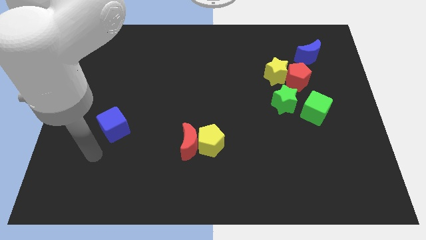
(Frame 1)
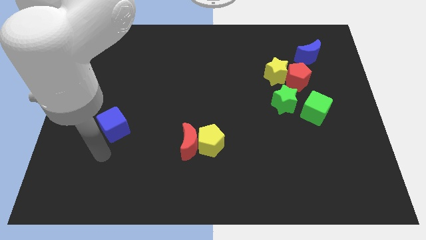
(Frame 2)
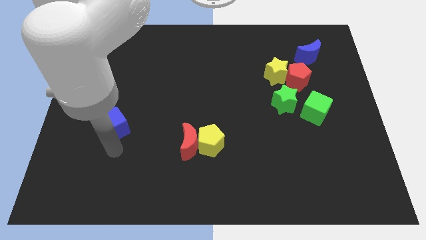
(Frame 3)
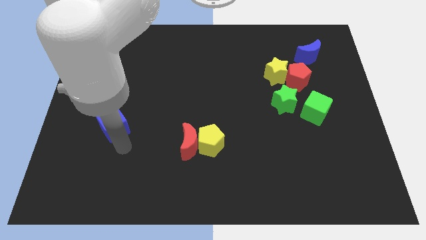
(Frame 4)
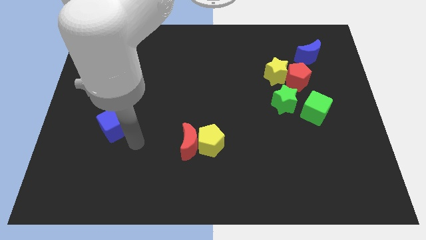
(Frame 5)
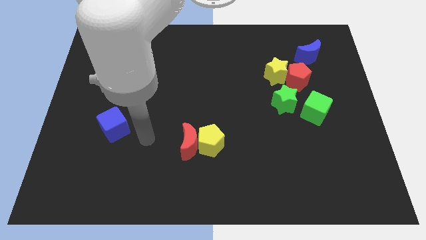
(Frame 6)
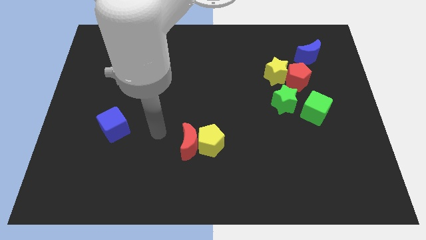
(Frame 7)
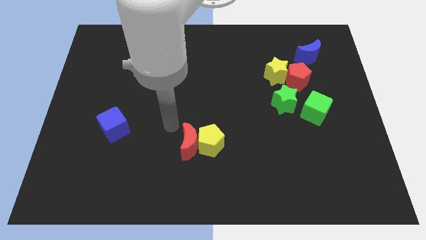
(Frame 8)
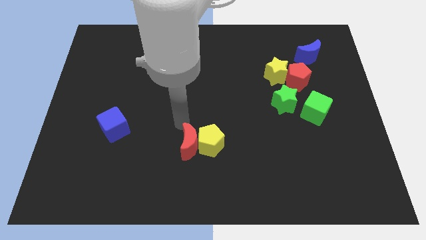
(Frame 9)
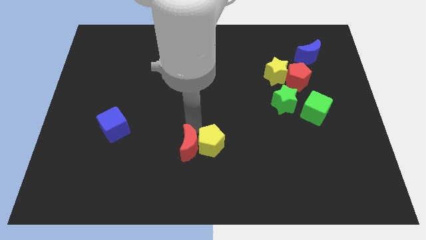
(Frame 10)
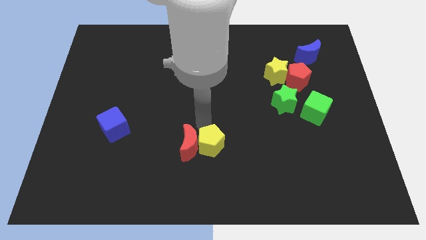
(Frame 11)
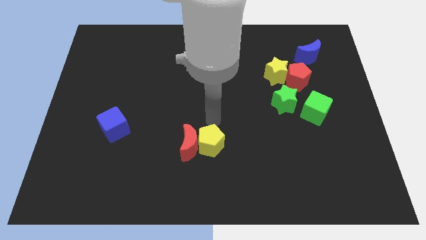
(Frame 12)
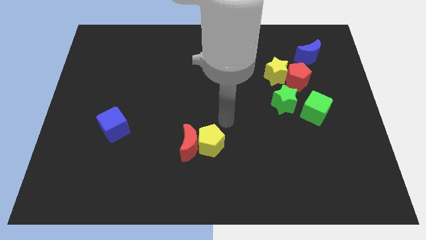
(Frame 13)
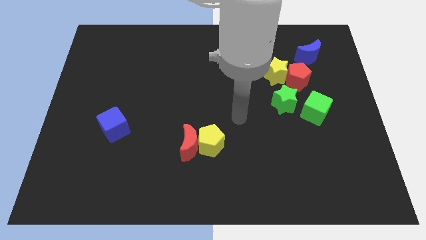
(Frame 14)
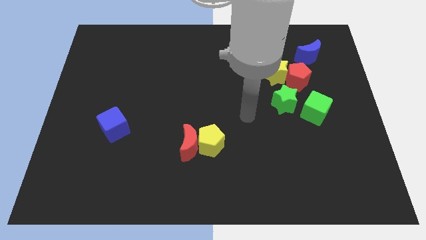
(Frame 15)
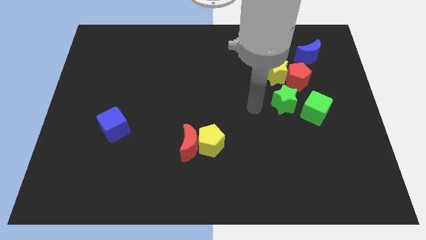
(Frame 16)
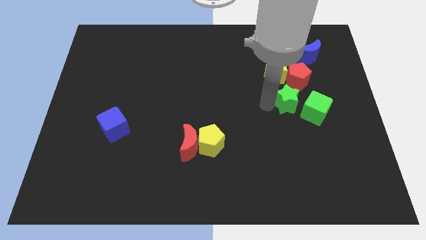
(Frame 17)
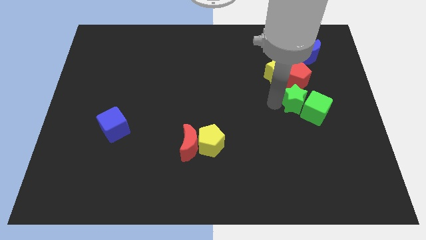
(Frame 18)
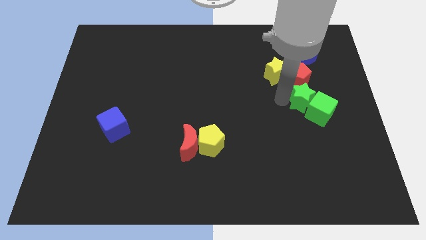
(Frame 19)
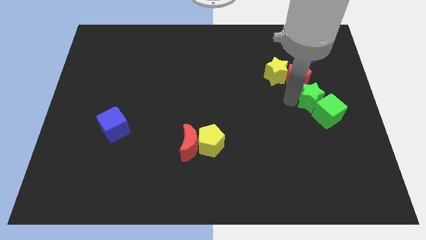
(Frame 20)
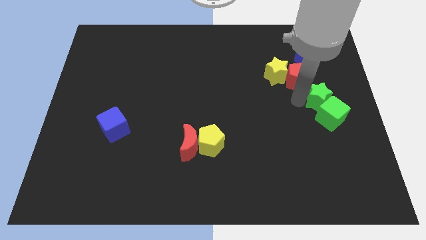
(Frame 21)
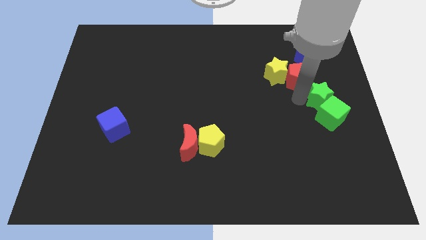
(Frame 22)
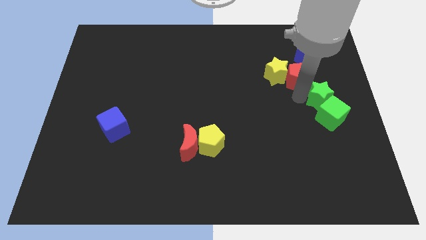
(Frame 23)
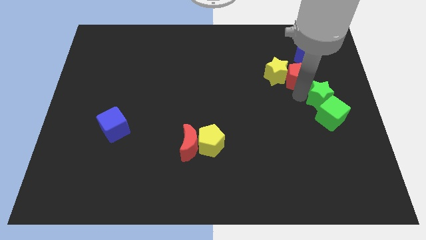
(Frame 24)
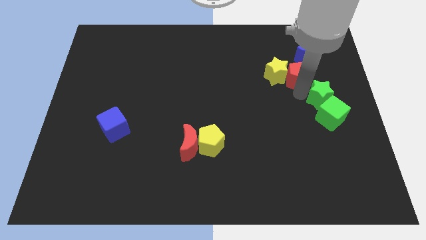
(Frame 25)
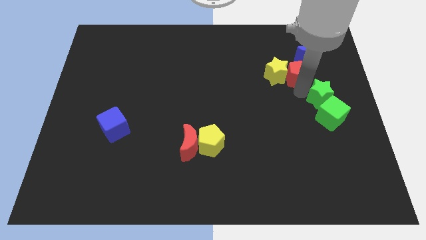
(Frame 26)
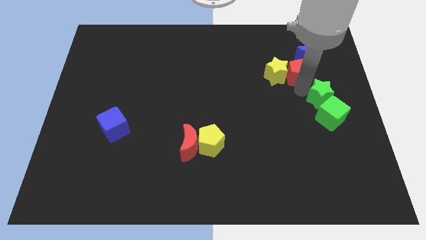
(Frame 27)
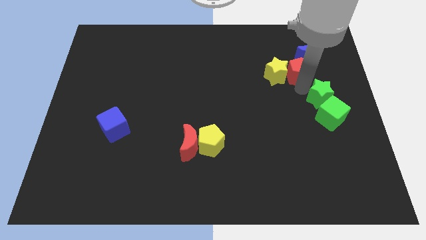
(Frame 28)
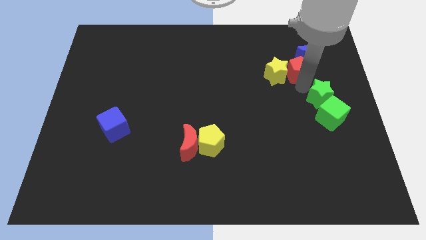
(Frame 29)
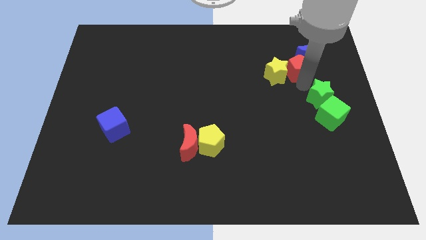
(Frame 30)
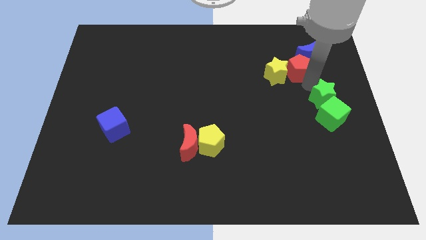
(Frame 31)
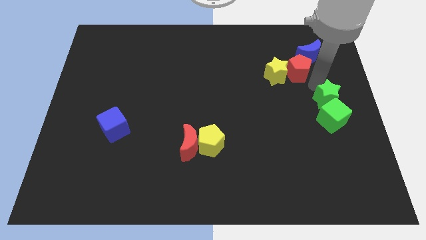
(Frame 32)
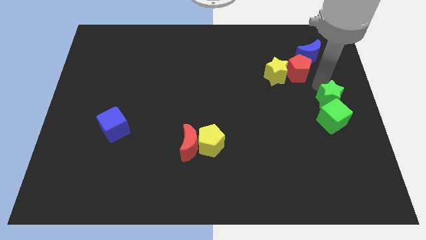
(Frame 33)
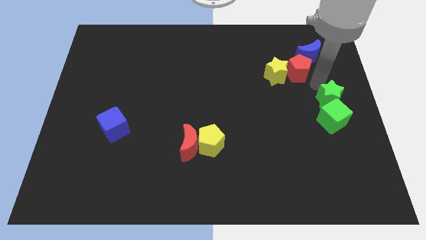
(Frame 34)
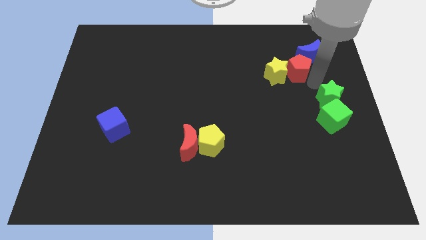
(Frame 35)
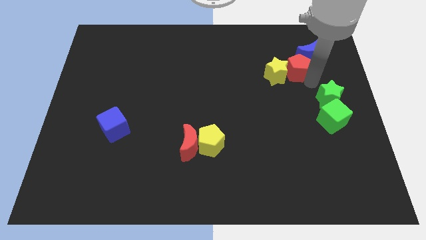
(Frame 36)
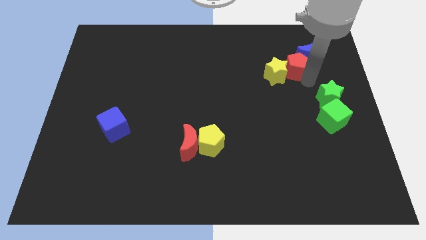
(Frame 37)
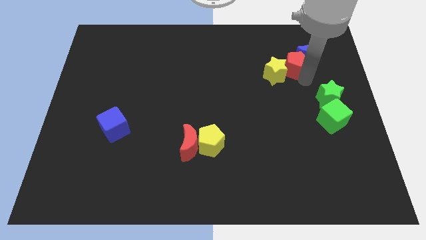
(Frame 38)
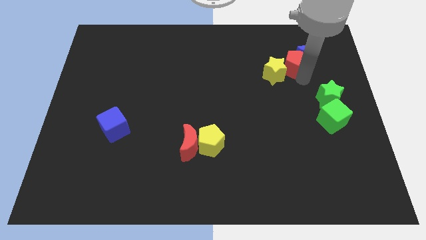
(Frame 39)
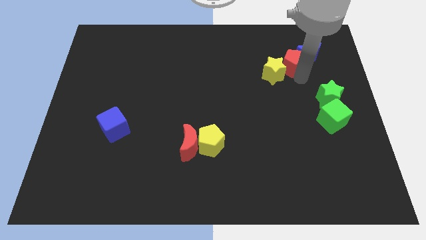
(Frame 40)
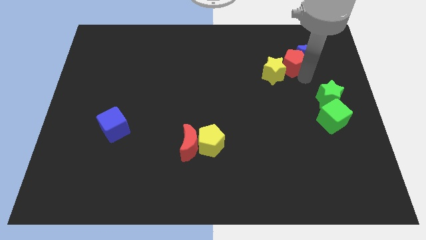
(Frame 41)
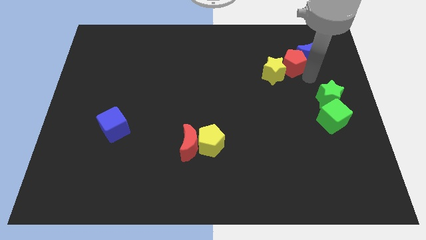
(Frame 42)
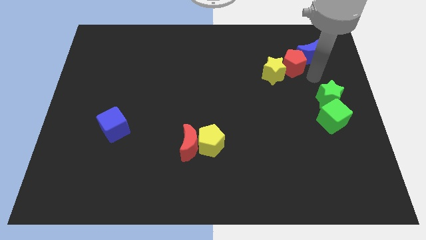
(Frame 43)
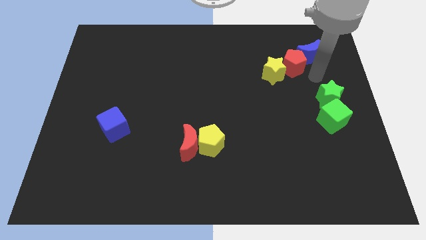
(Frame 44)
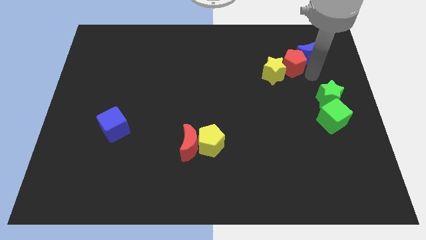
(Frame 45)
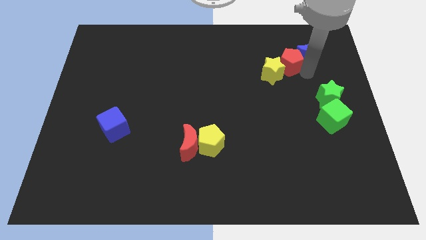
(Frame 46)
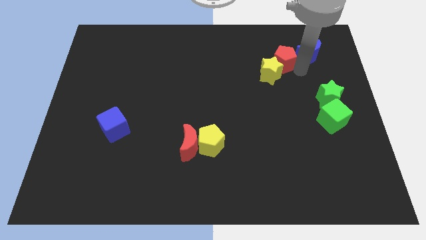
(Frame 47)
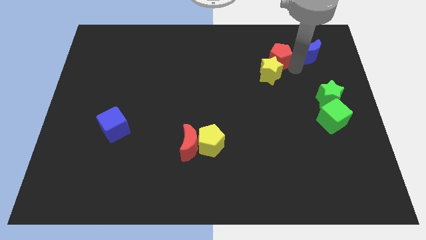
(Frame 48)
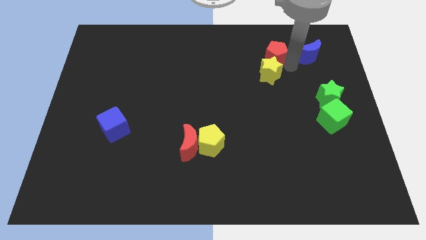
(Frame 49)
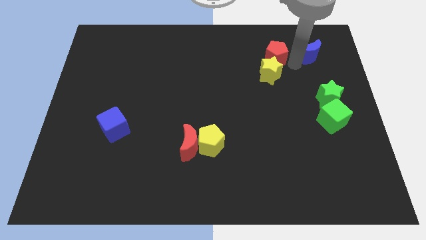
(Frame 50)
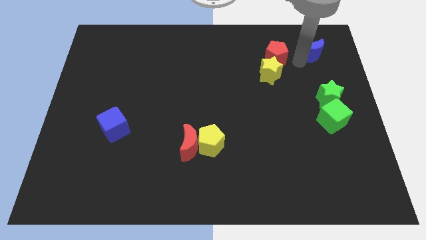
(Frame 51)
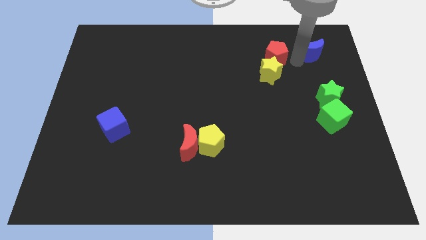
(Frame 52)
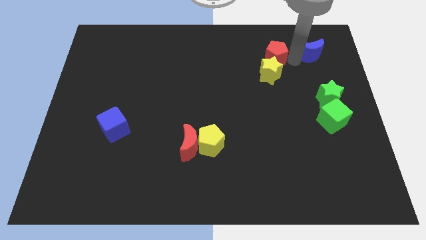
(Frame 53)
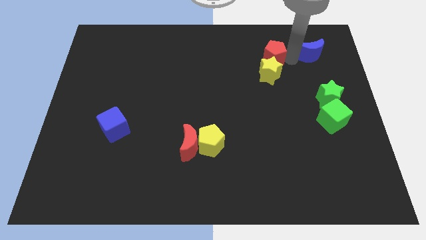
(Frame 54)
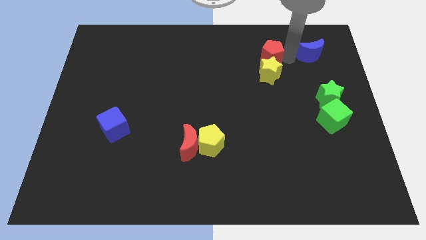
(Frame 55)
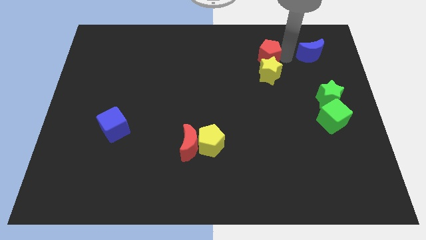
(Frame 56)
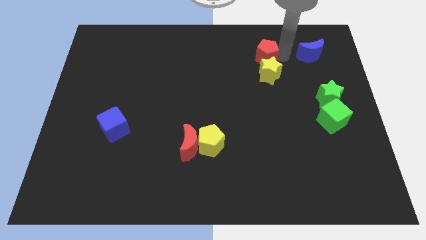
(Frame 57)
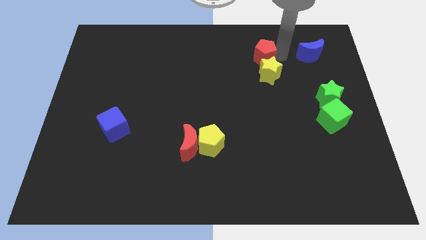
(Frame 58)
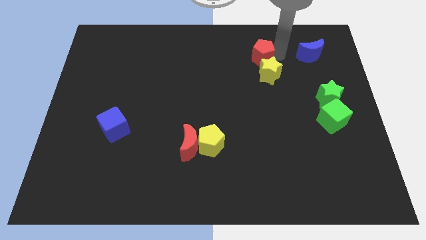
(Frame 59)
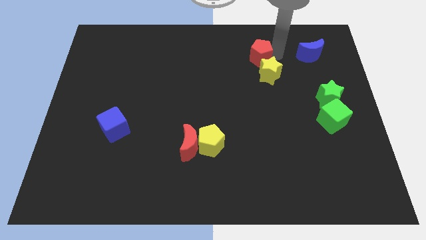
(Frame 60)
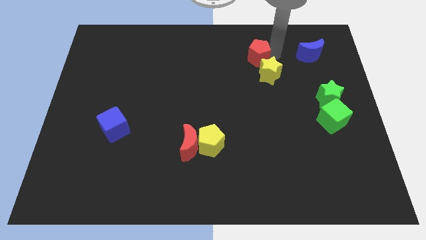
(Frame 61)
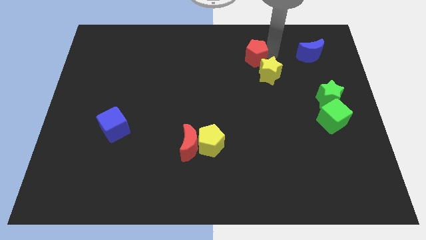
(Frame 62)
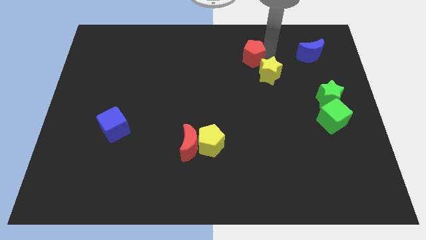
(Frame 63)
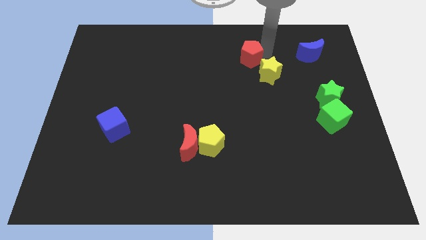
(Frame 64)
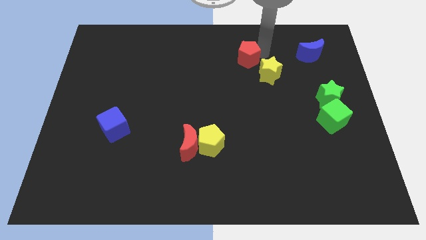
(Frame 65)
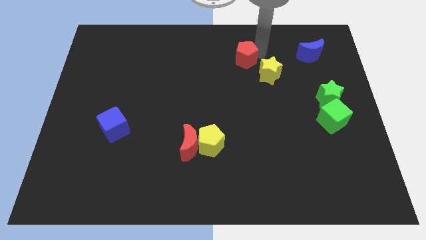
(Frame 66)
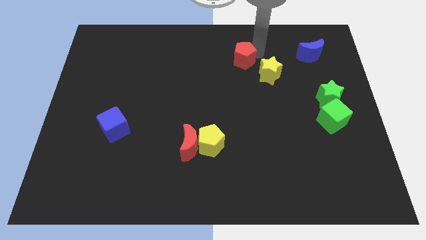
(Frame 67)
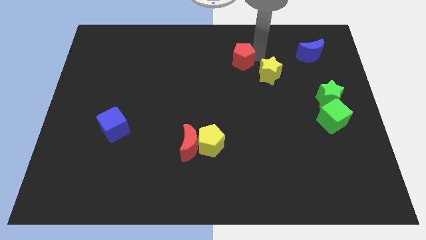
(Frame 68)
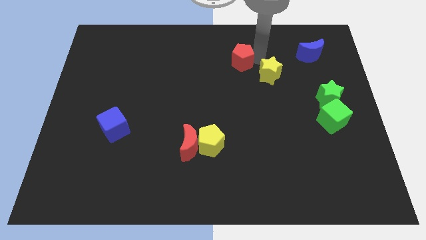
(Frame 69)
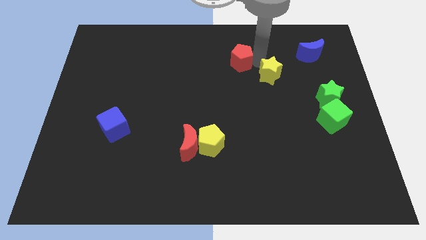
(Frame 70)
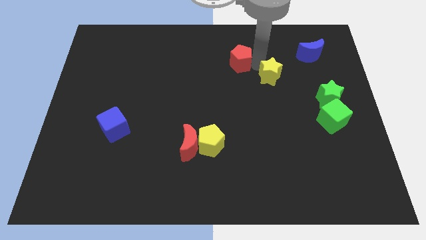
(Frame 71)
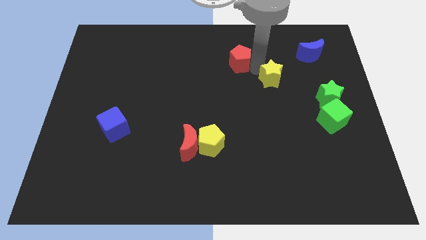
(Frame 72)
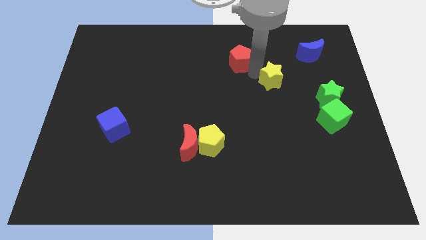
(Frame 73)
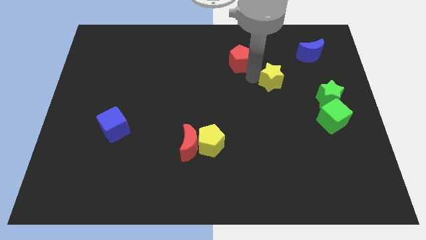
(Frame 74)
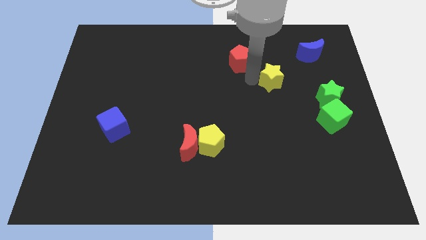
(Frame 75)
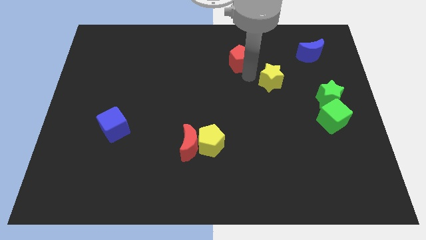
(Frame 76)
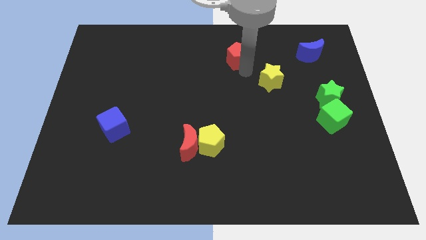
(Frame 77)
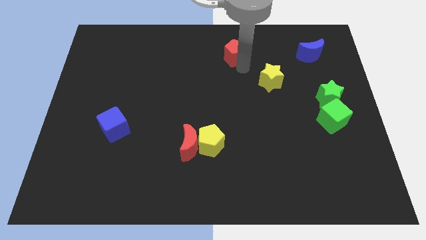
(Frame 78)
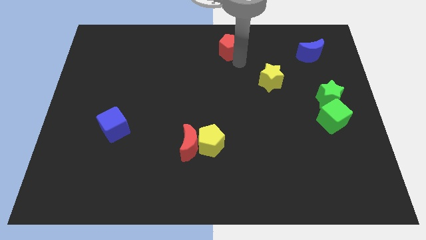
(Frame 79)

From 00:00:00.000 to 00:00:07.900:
put the red pentagon to the top side
